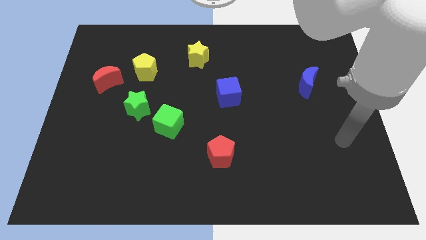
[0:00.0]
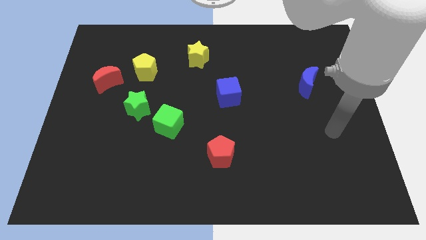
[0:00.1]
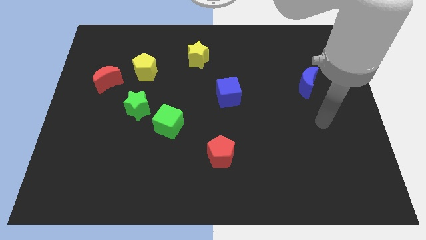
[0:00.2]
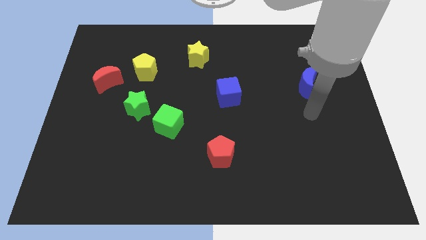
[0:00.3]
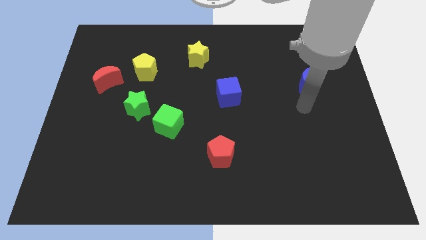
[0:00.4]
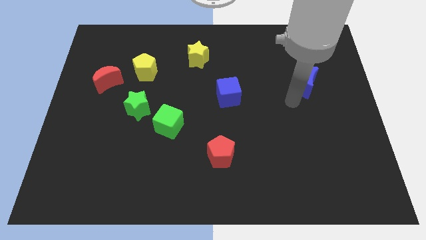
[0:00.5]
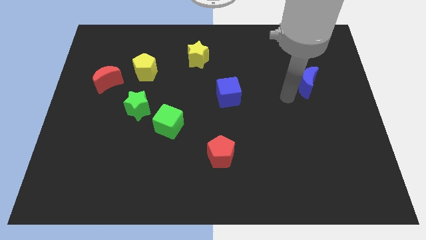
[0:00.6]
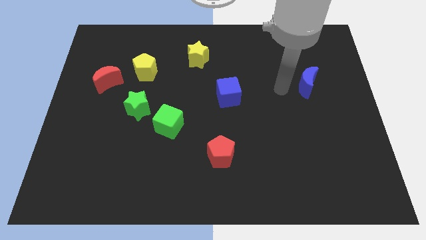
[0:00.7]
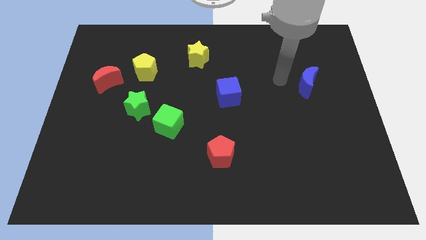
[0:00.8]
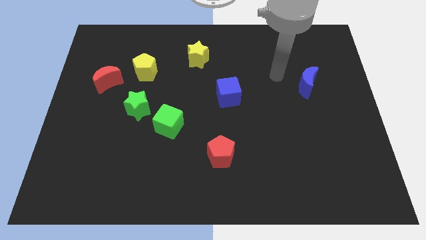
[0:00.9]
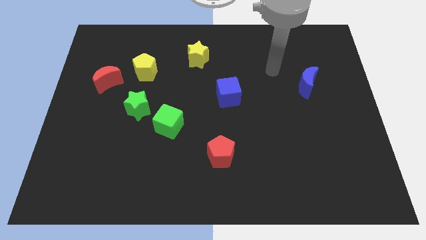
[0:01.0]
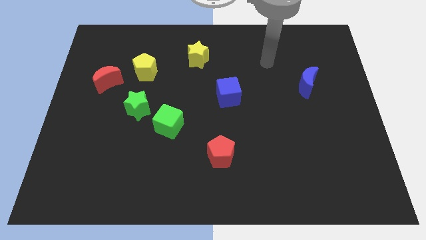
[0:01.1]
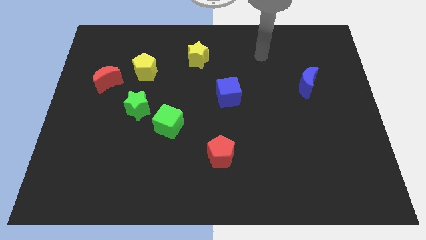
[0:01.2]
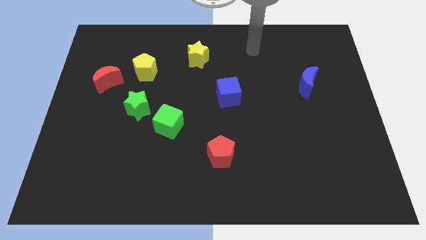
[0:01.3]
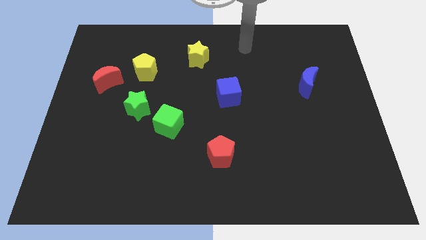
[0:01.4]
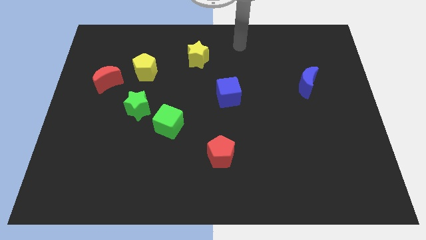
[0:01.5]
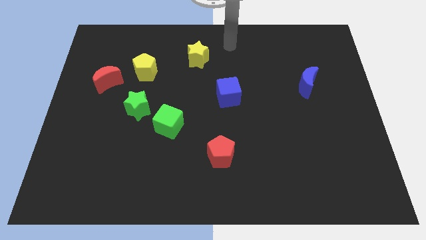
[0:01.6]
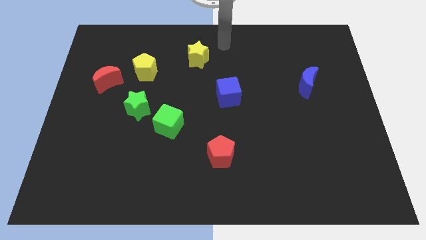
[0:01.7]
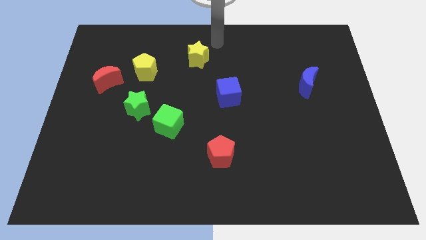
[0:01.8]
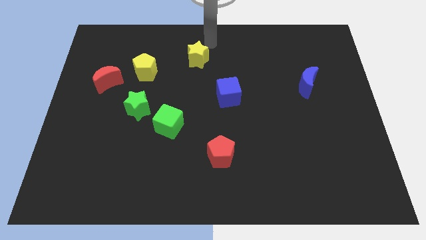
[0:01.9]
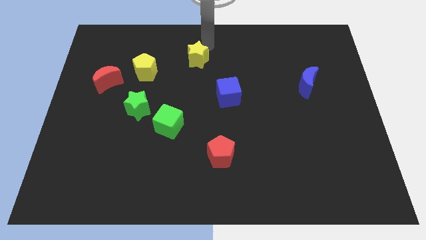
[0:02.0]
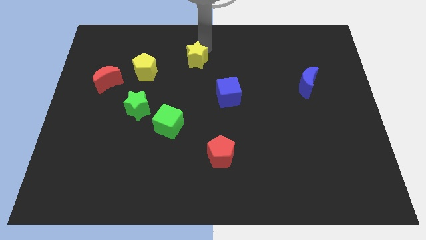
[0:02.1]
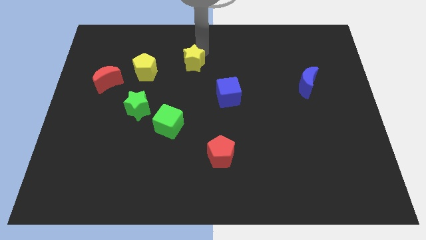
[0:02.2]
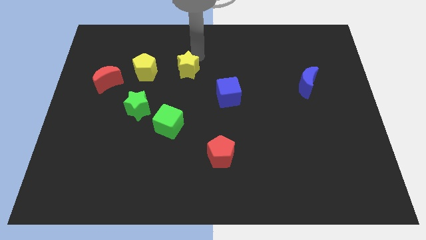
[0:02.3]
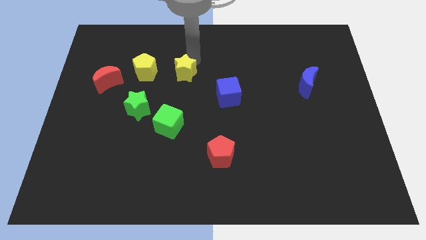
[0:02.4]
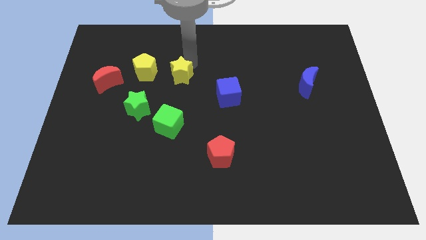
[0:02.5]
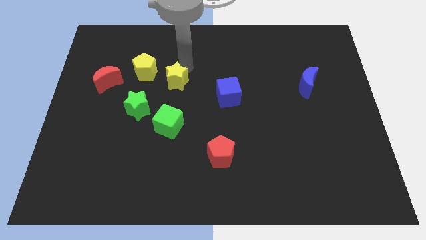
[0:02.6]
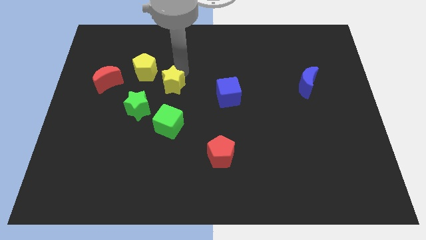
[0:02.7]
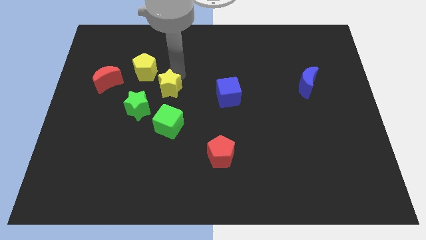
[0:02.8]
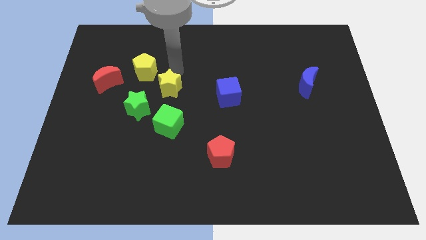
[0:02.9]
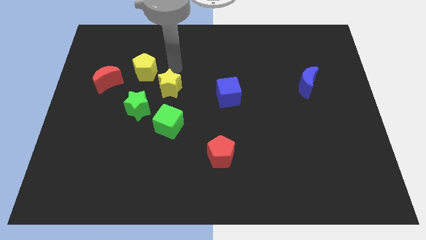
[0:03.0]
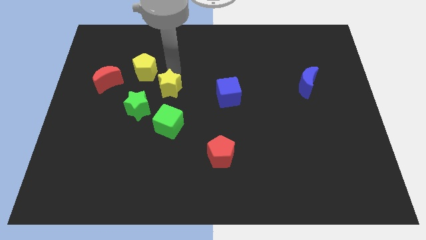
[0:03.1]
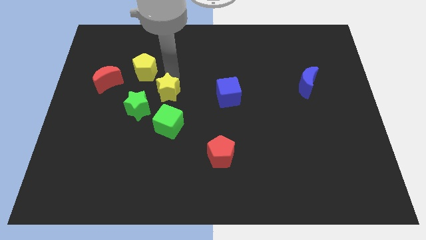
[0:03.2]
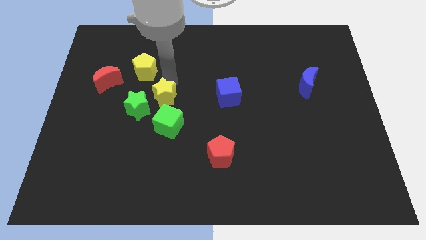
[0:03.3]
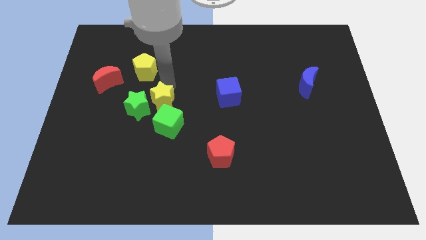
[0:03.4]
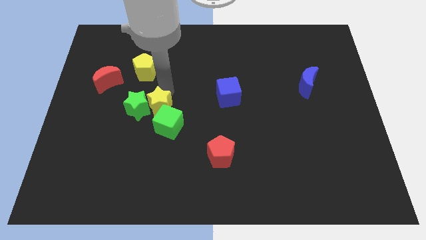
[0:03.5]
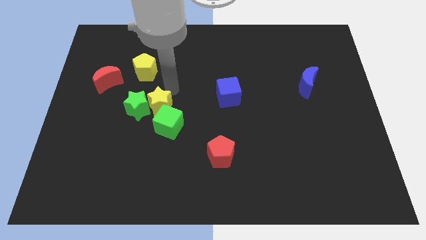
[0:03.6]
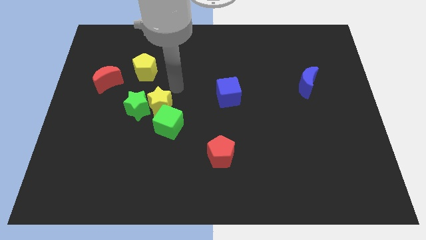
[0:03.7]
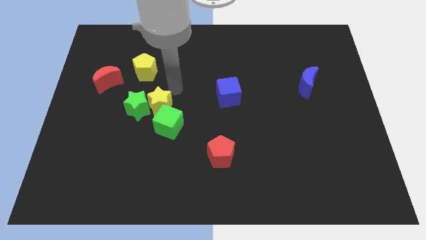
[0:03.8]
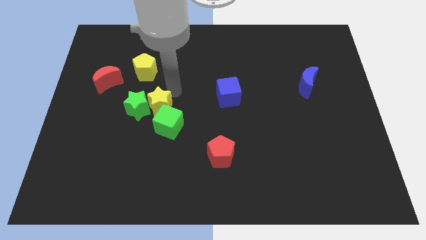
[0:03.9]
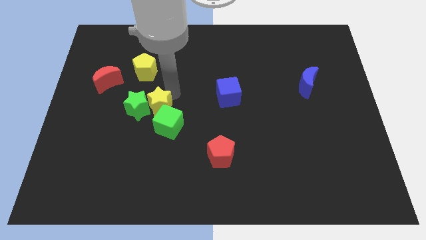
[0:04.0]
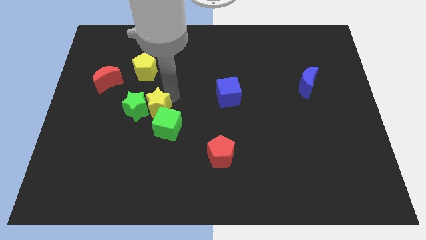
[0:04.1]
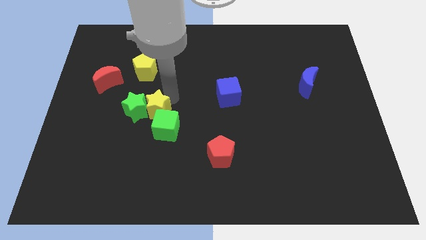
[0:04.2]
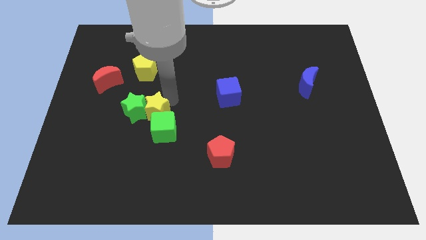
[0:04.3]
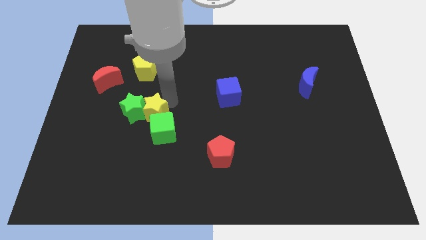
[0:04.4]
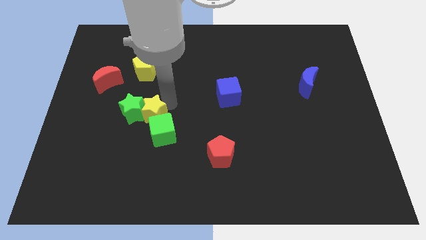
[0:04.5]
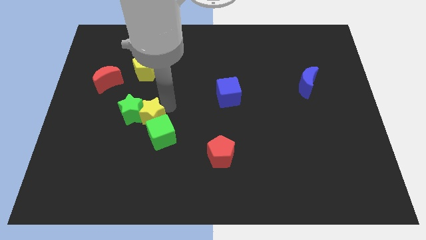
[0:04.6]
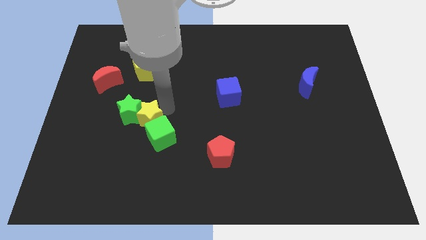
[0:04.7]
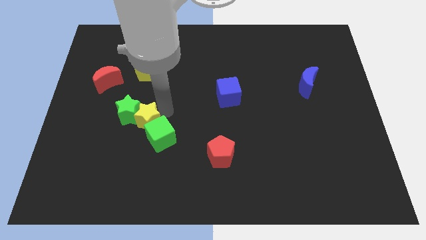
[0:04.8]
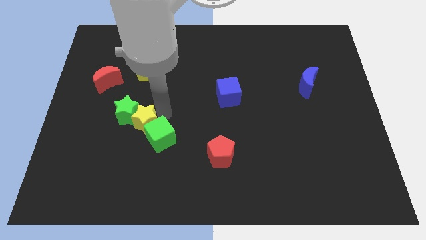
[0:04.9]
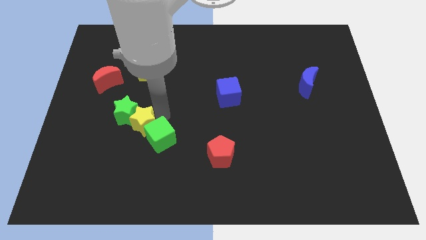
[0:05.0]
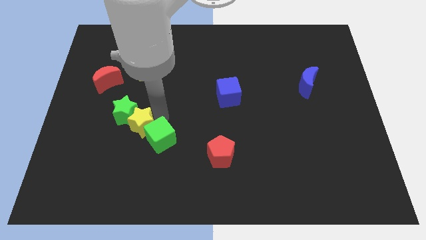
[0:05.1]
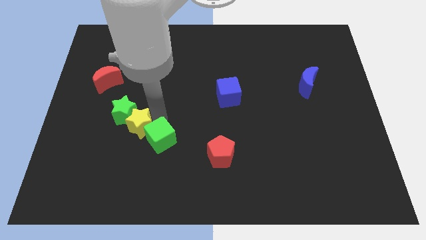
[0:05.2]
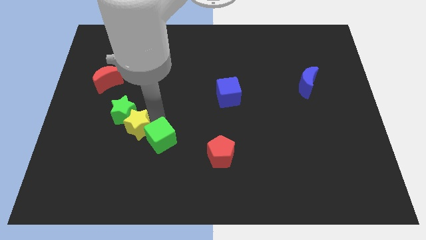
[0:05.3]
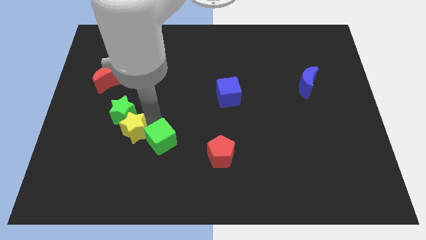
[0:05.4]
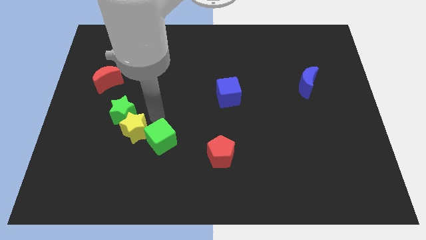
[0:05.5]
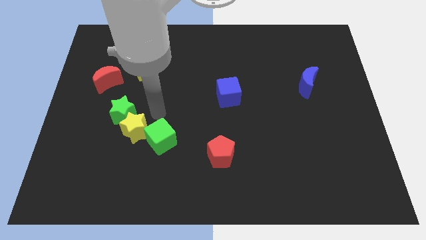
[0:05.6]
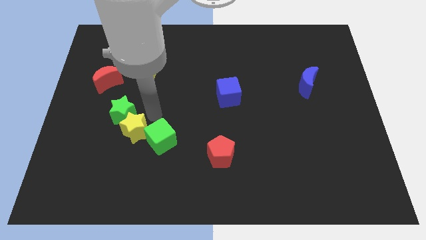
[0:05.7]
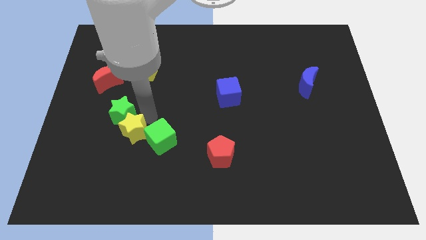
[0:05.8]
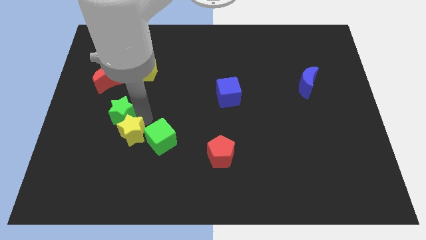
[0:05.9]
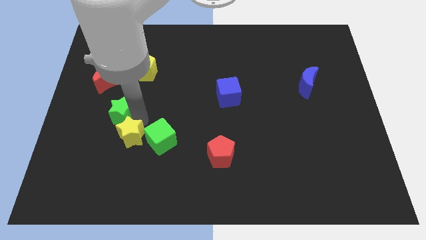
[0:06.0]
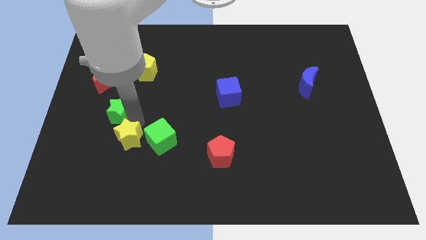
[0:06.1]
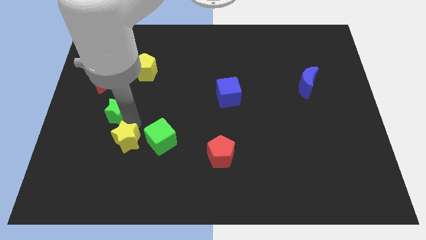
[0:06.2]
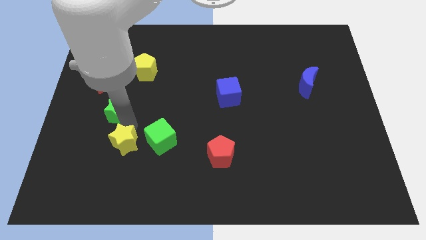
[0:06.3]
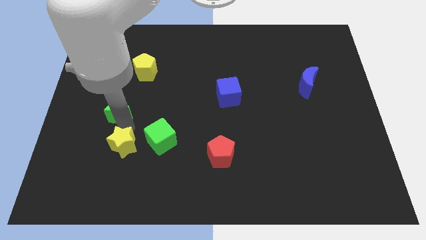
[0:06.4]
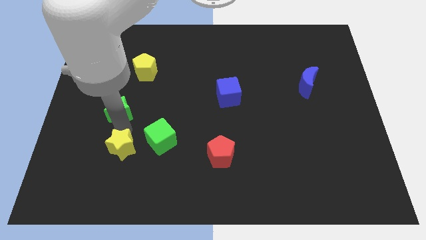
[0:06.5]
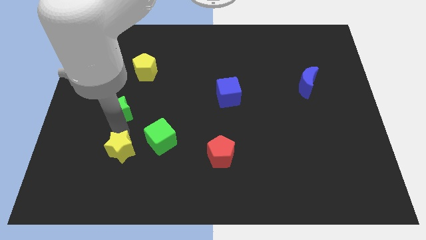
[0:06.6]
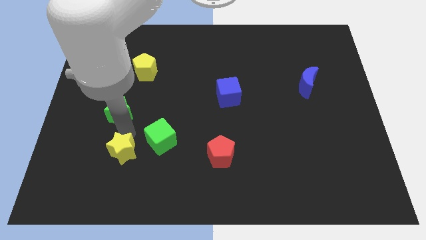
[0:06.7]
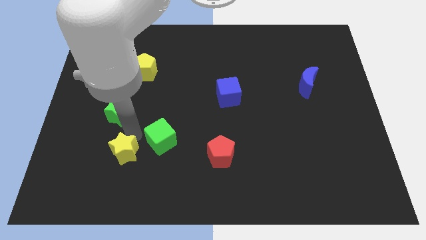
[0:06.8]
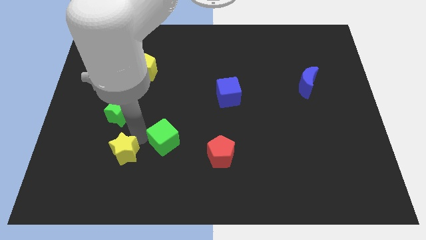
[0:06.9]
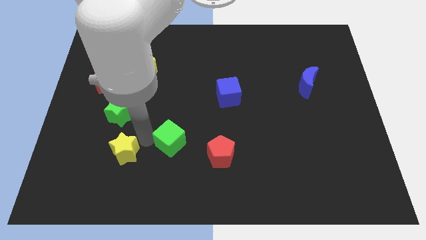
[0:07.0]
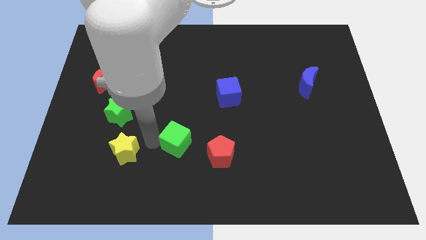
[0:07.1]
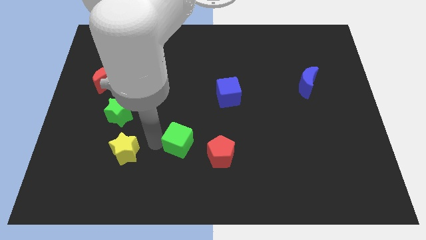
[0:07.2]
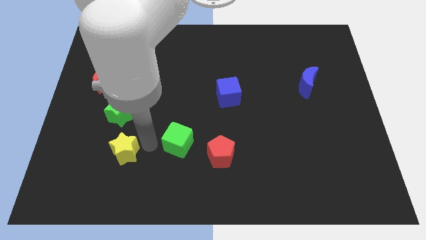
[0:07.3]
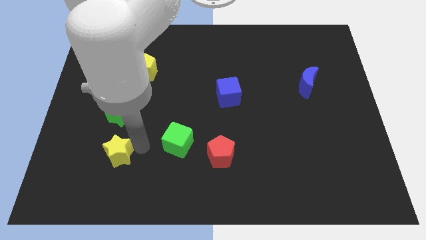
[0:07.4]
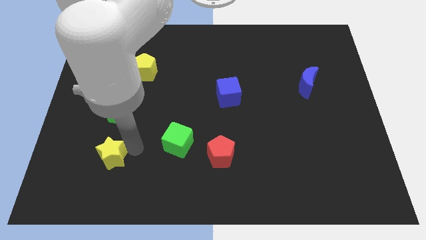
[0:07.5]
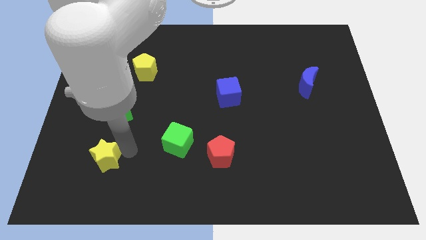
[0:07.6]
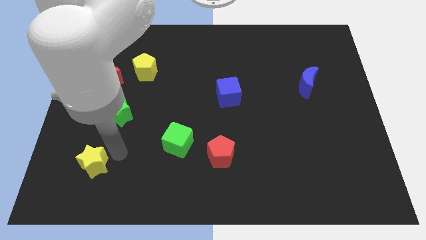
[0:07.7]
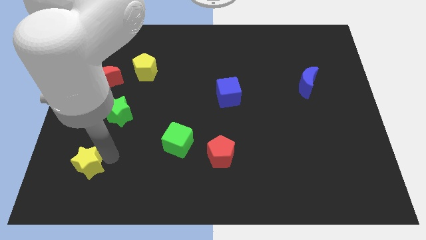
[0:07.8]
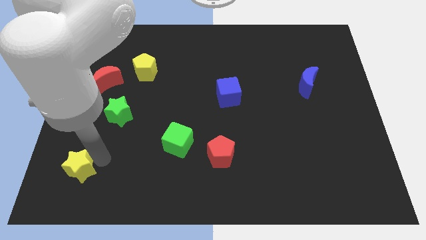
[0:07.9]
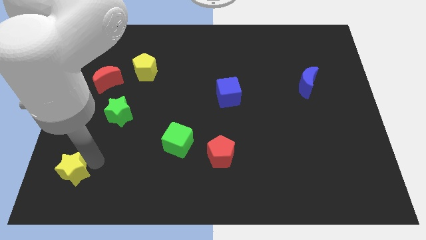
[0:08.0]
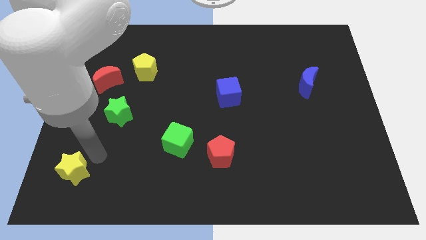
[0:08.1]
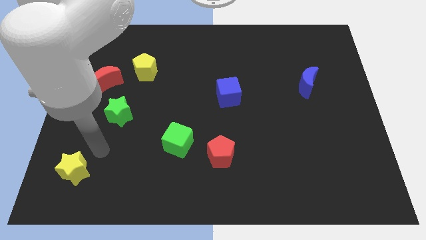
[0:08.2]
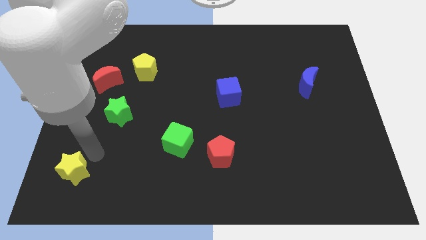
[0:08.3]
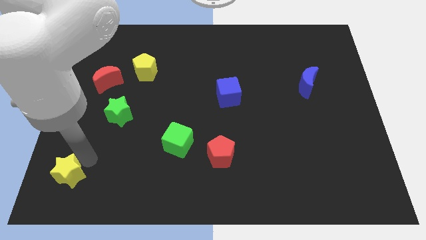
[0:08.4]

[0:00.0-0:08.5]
slide the yellow star to the bottom left of the board
